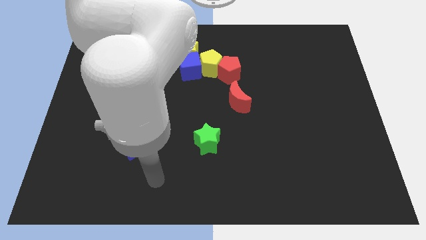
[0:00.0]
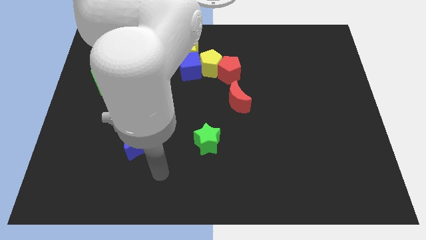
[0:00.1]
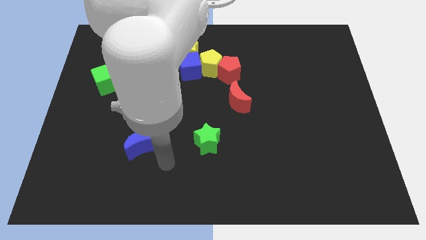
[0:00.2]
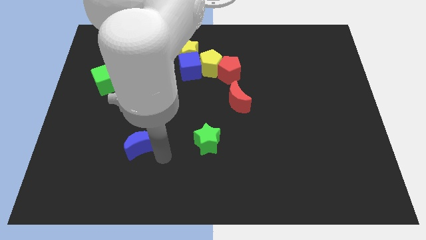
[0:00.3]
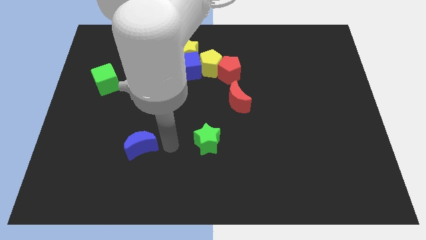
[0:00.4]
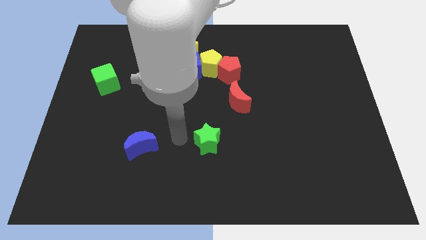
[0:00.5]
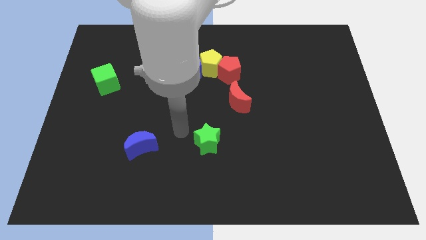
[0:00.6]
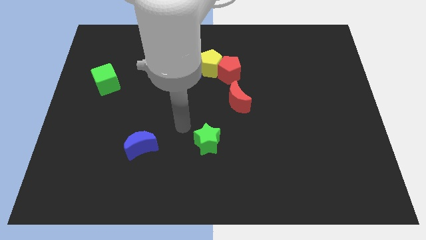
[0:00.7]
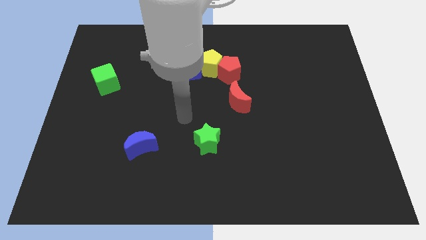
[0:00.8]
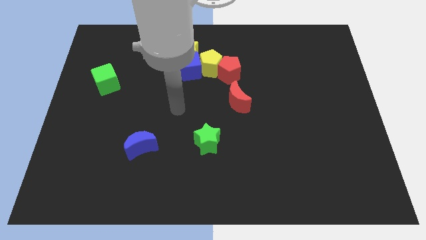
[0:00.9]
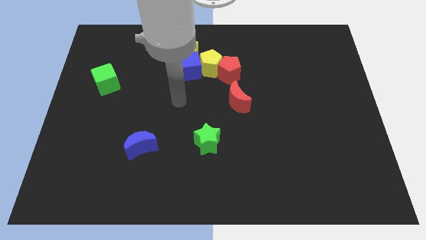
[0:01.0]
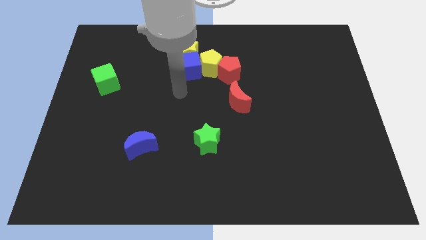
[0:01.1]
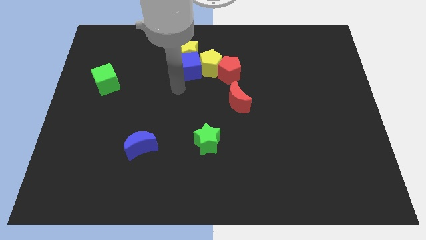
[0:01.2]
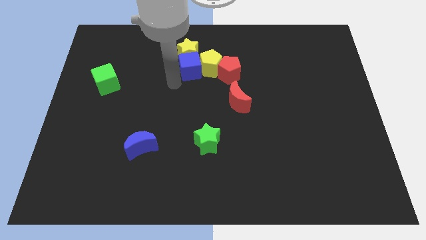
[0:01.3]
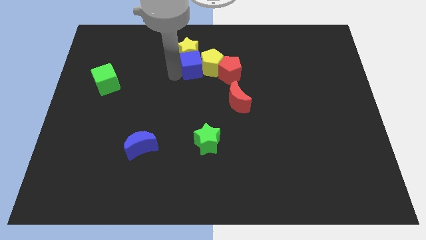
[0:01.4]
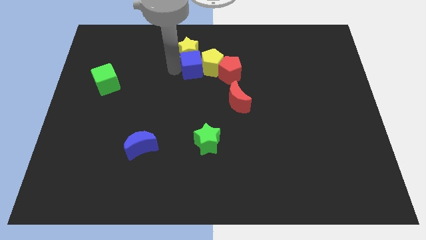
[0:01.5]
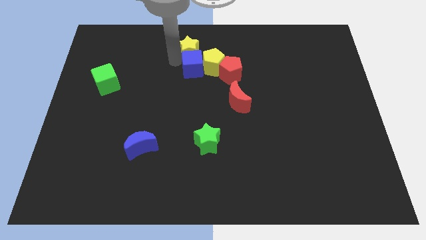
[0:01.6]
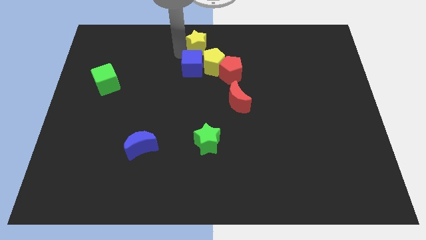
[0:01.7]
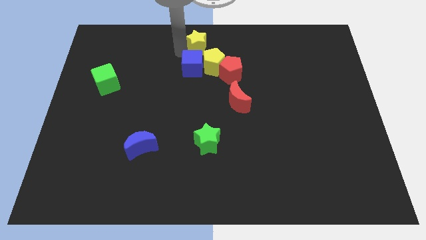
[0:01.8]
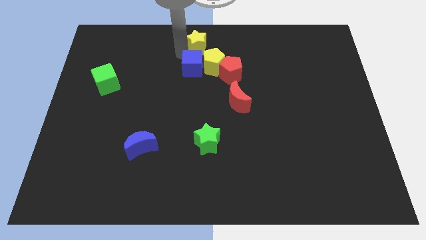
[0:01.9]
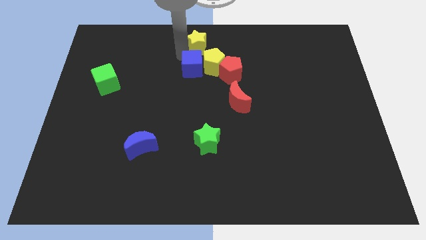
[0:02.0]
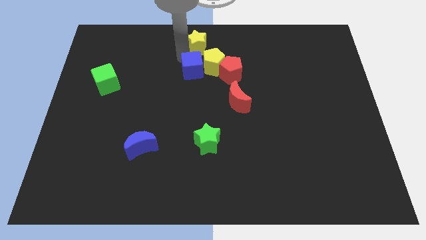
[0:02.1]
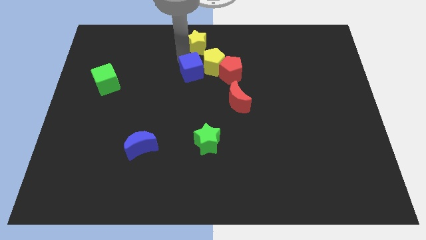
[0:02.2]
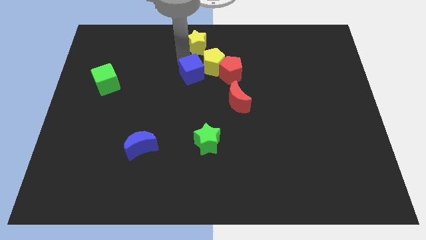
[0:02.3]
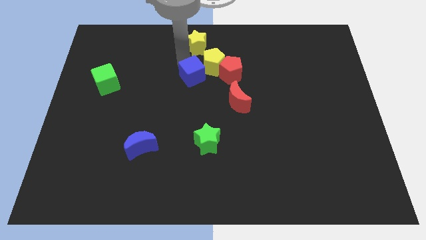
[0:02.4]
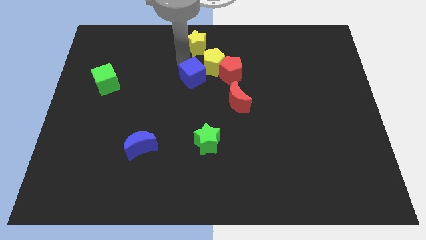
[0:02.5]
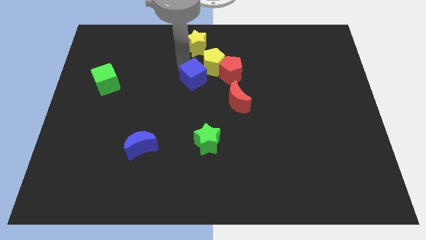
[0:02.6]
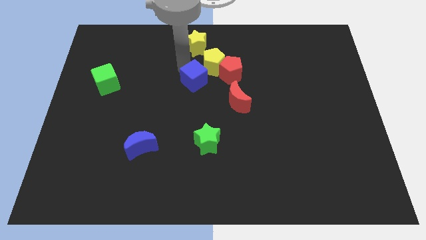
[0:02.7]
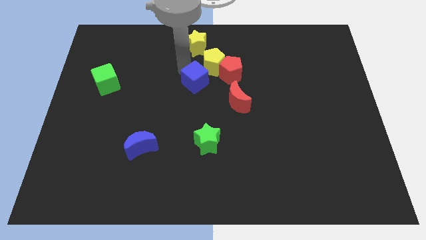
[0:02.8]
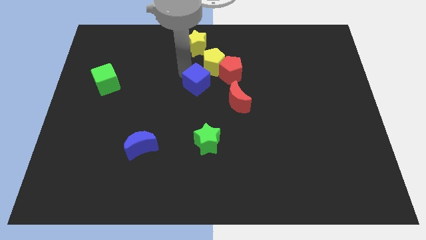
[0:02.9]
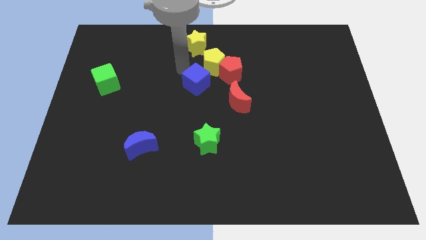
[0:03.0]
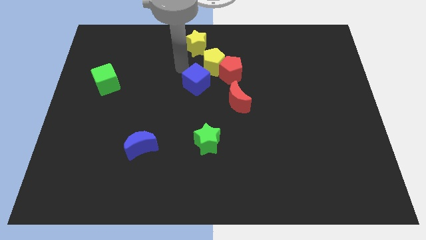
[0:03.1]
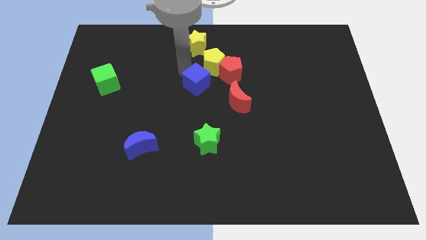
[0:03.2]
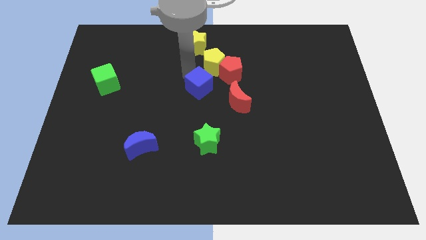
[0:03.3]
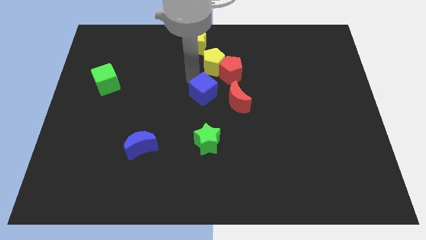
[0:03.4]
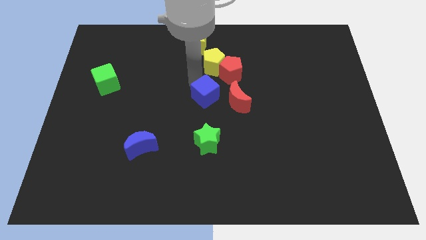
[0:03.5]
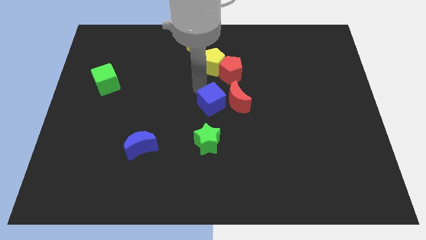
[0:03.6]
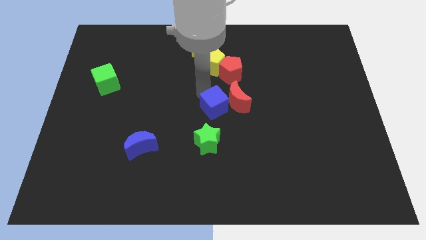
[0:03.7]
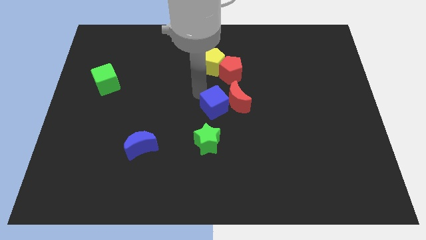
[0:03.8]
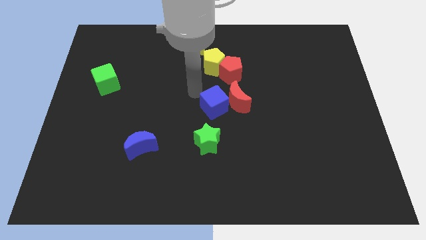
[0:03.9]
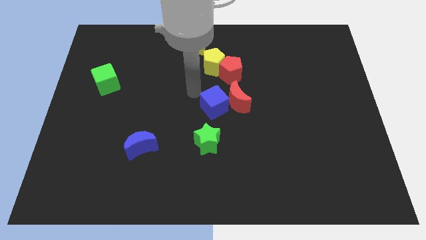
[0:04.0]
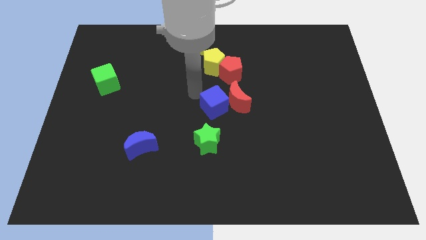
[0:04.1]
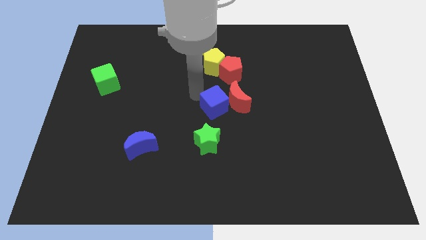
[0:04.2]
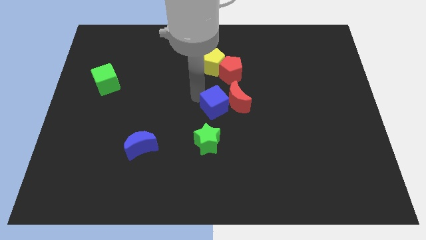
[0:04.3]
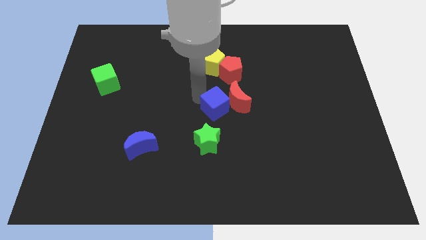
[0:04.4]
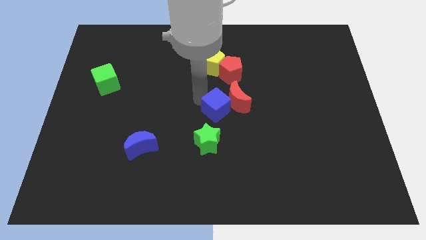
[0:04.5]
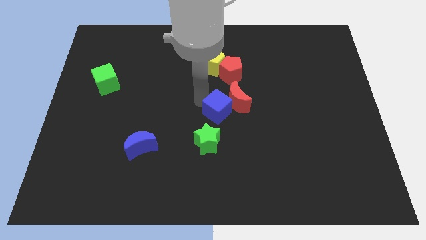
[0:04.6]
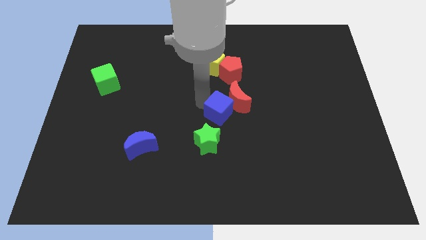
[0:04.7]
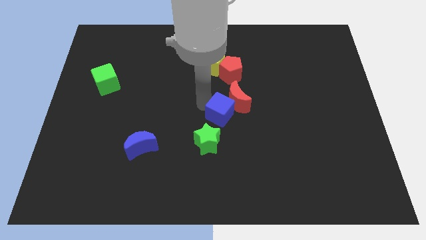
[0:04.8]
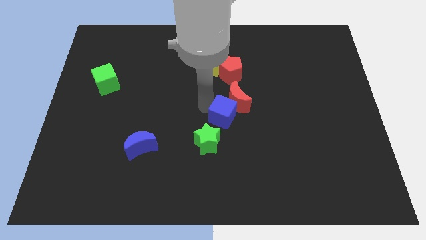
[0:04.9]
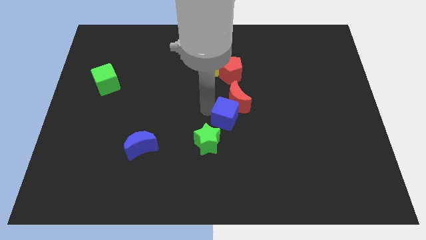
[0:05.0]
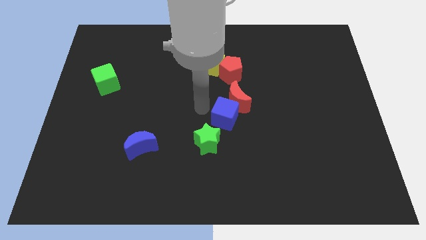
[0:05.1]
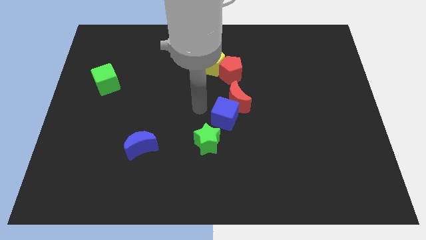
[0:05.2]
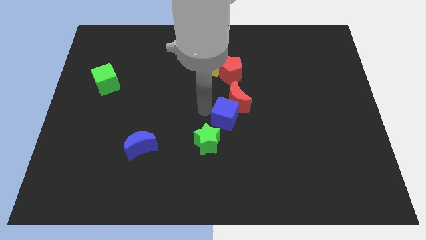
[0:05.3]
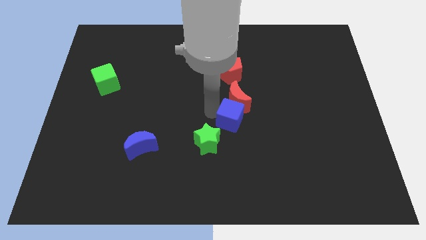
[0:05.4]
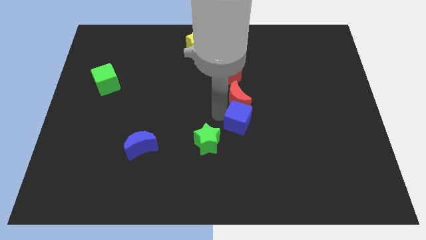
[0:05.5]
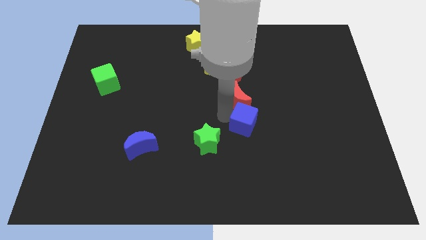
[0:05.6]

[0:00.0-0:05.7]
move the blue cube downwards and to the right diagonally

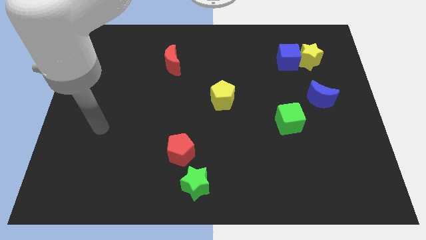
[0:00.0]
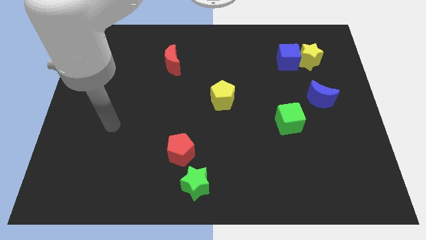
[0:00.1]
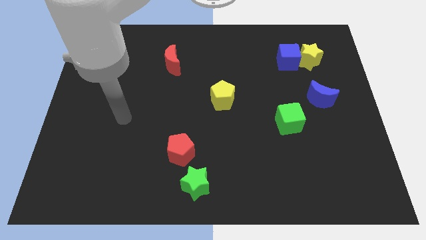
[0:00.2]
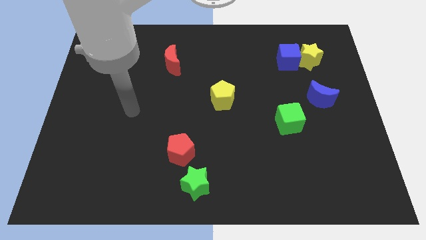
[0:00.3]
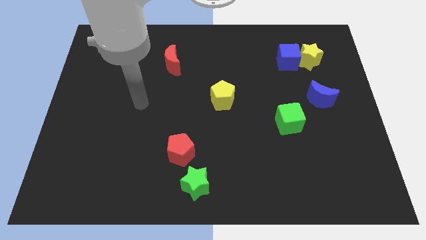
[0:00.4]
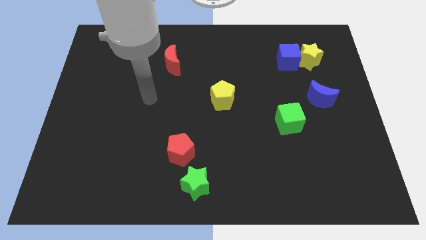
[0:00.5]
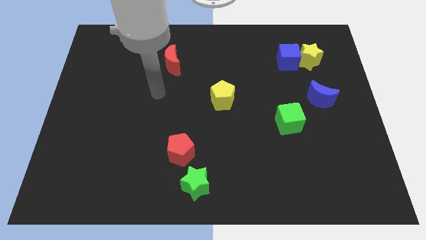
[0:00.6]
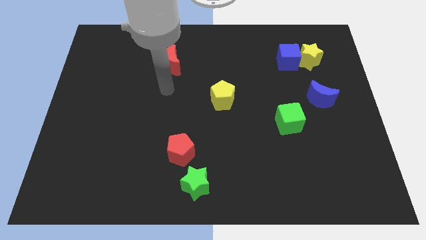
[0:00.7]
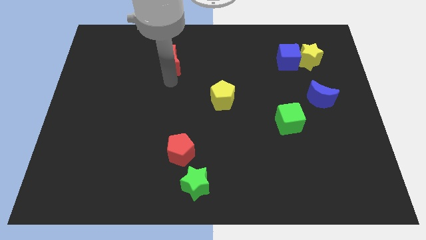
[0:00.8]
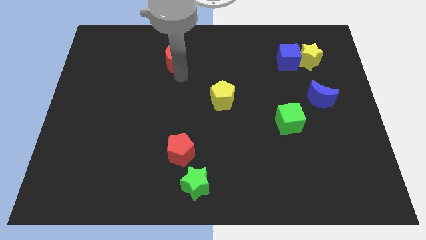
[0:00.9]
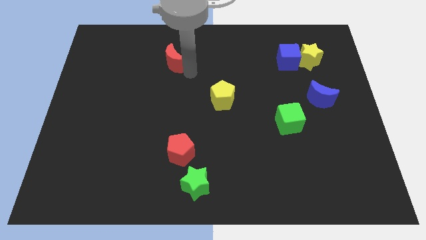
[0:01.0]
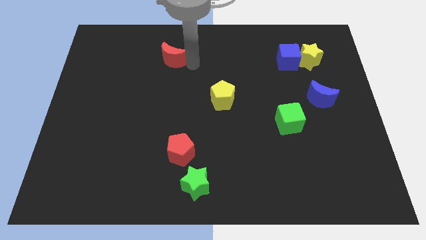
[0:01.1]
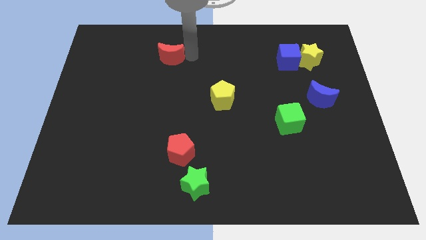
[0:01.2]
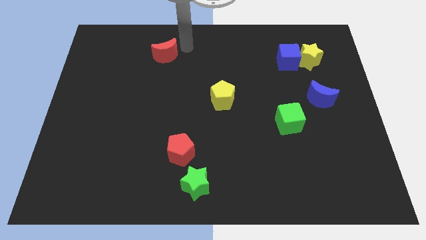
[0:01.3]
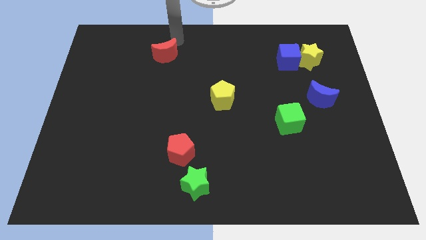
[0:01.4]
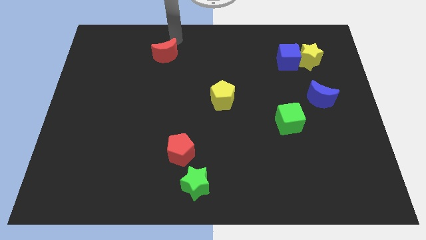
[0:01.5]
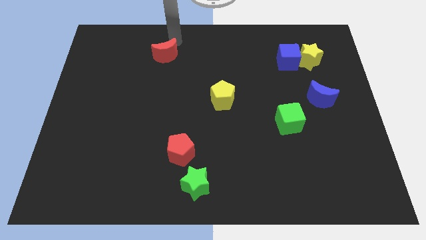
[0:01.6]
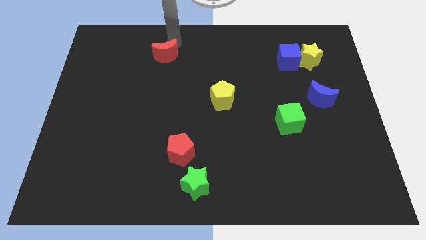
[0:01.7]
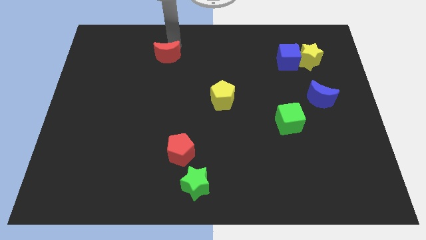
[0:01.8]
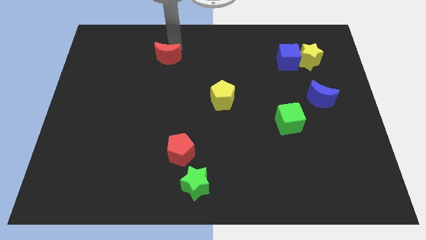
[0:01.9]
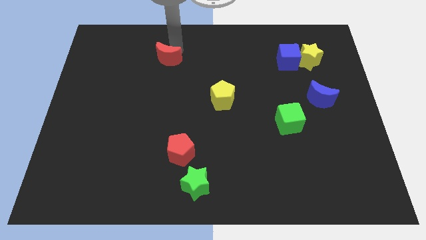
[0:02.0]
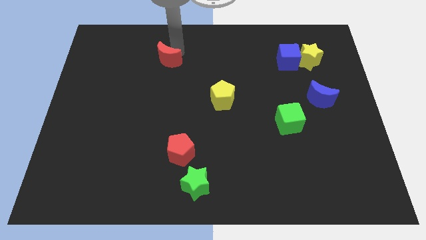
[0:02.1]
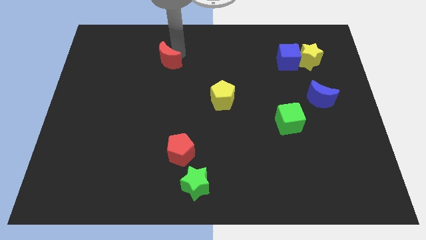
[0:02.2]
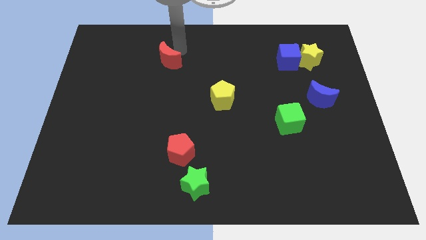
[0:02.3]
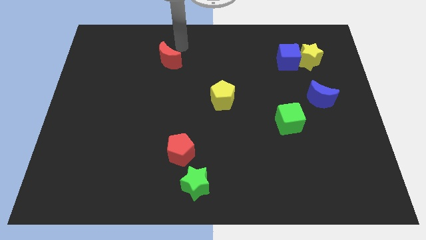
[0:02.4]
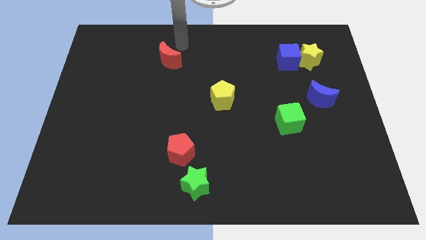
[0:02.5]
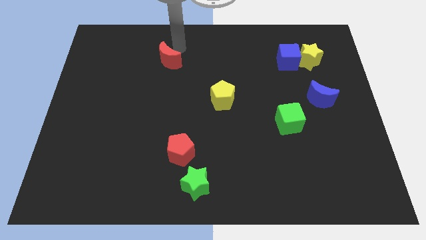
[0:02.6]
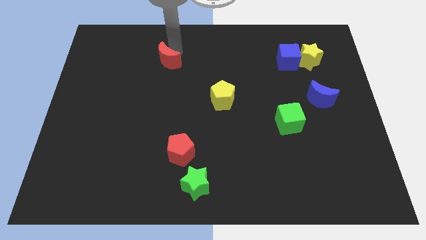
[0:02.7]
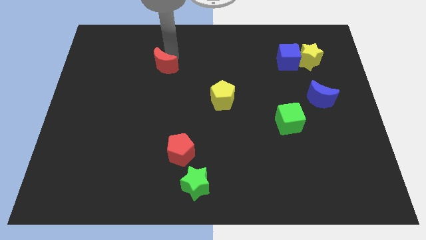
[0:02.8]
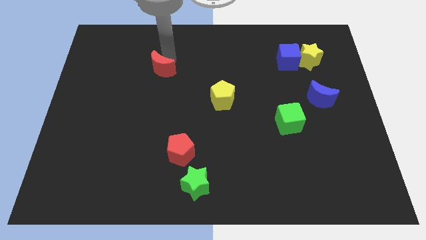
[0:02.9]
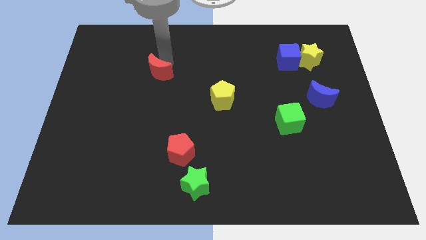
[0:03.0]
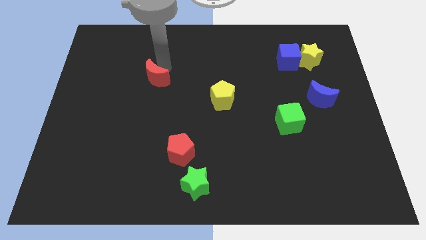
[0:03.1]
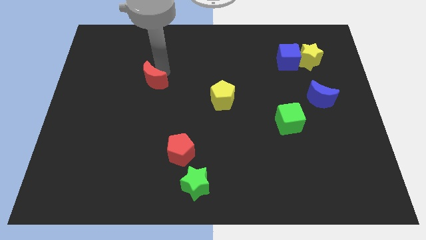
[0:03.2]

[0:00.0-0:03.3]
push the red moon a little bit downwards and left
